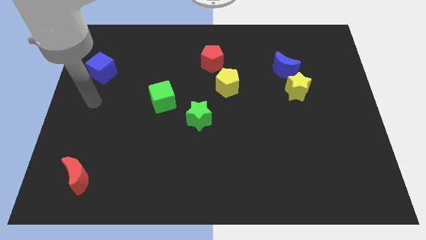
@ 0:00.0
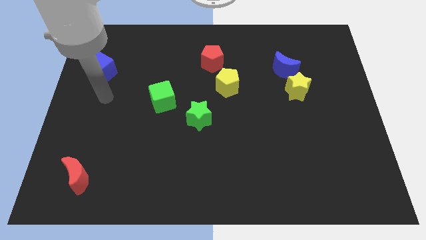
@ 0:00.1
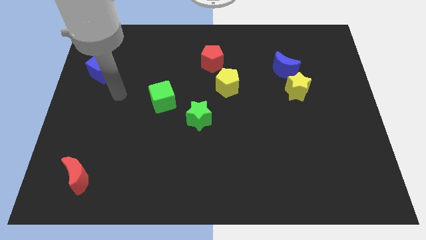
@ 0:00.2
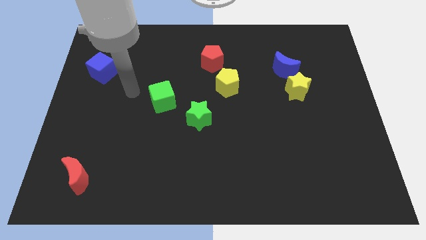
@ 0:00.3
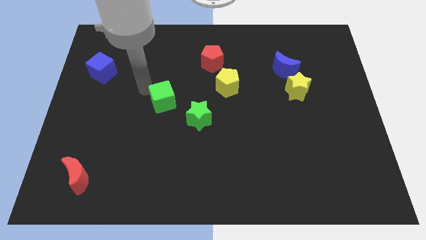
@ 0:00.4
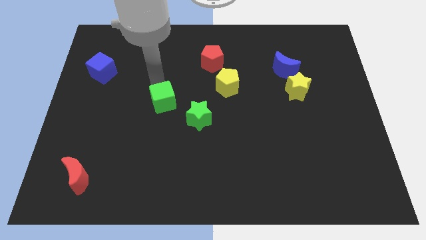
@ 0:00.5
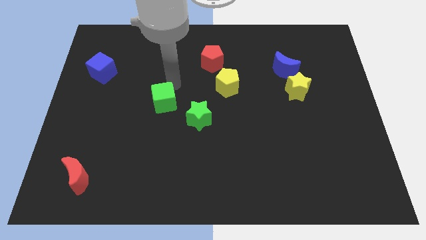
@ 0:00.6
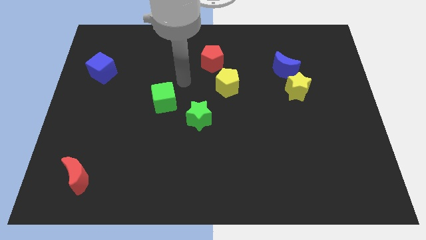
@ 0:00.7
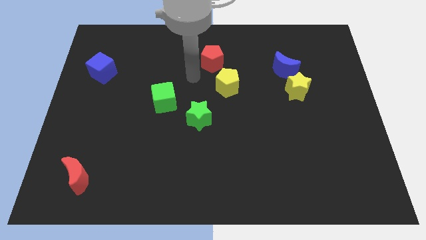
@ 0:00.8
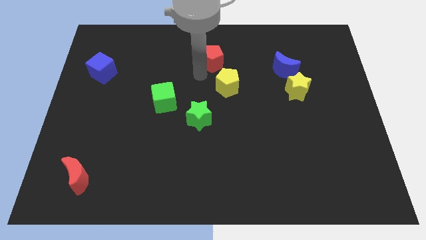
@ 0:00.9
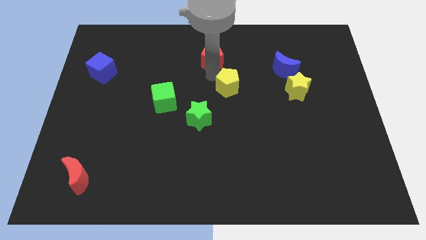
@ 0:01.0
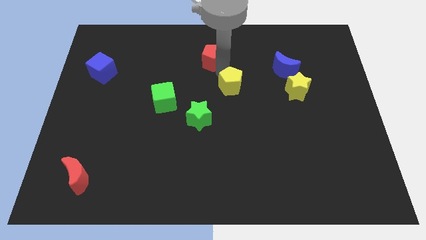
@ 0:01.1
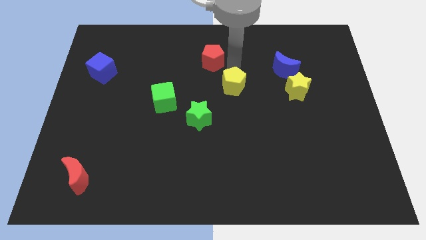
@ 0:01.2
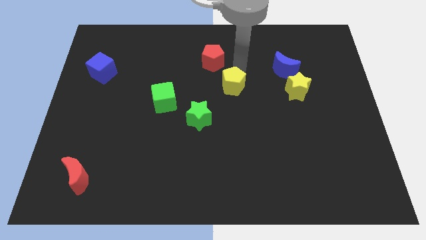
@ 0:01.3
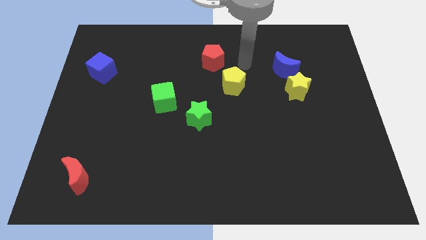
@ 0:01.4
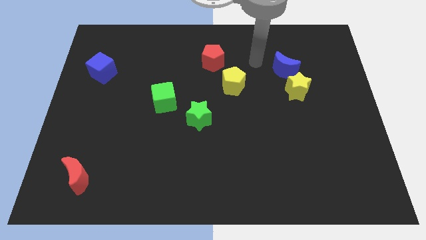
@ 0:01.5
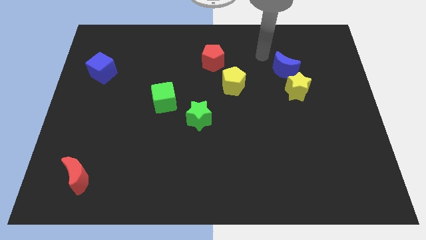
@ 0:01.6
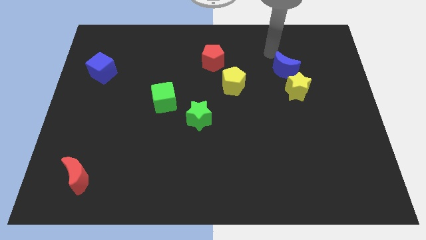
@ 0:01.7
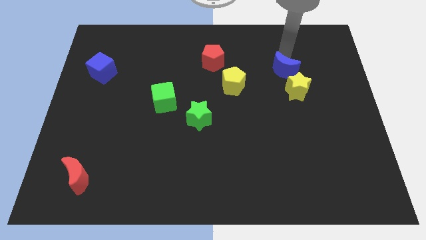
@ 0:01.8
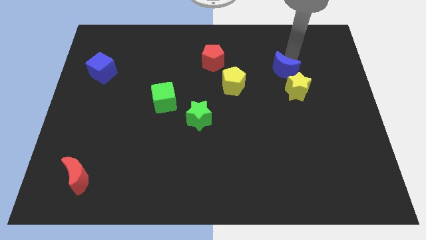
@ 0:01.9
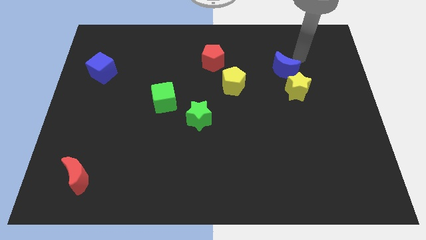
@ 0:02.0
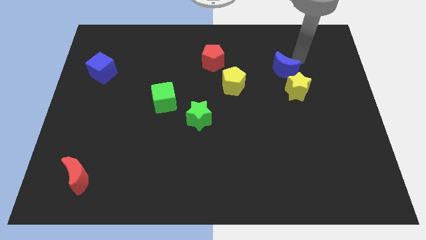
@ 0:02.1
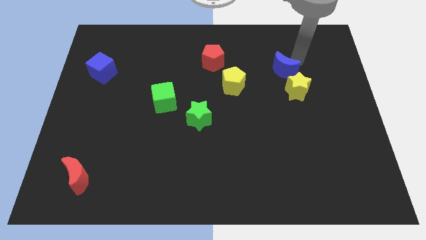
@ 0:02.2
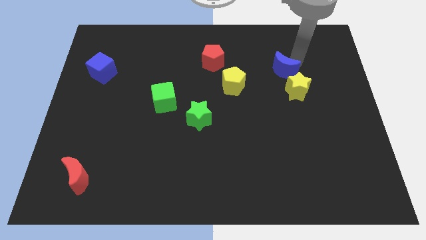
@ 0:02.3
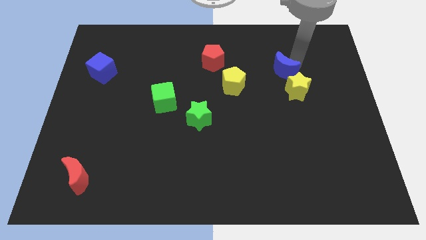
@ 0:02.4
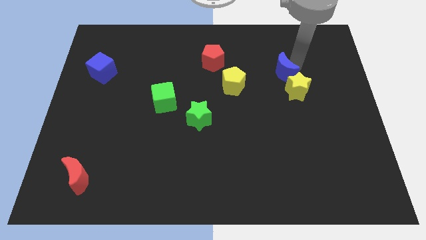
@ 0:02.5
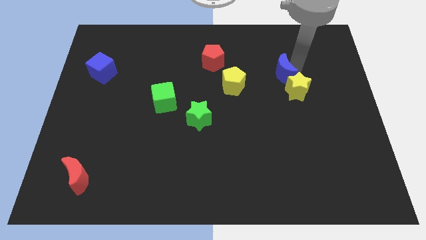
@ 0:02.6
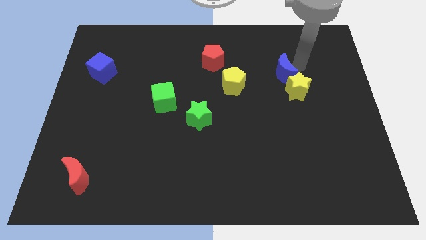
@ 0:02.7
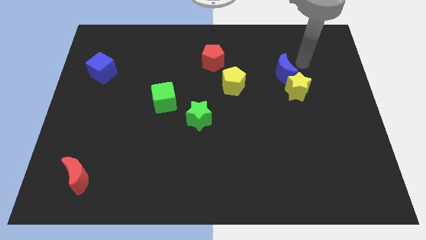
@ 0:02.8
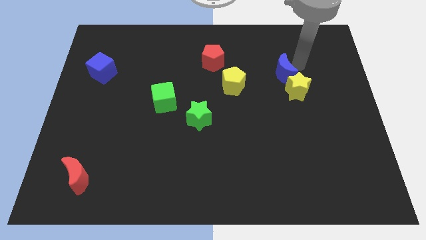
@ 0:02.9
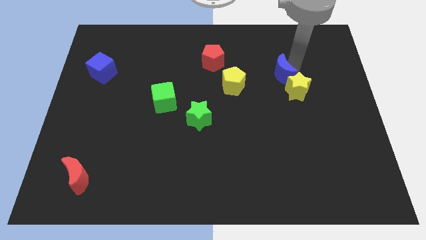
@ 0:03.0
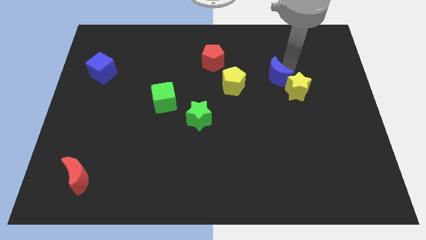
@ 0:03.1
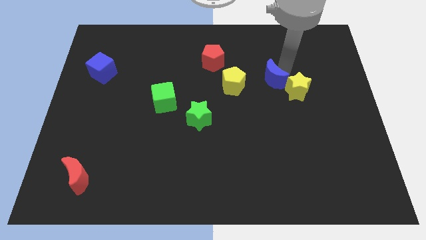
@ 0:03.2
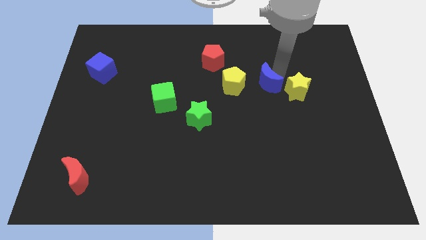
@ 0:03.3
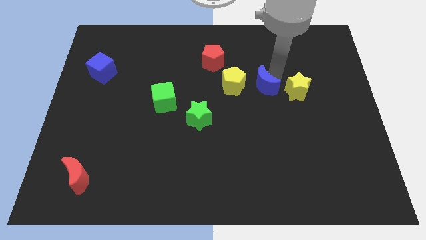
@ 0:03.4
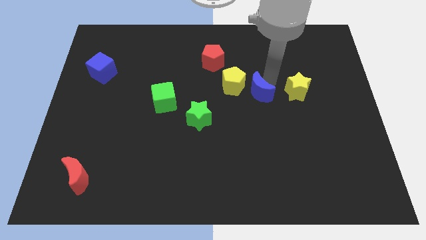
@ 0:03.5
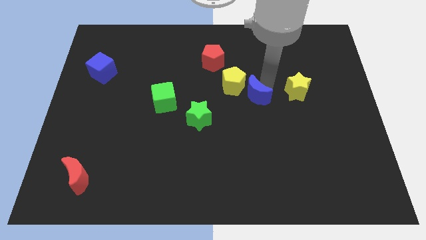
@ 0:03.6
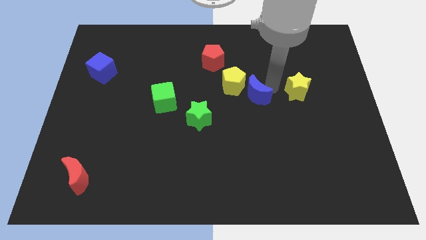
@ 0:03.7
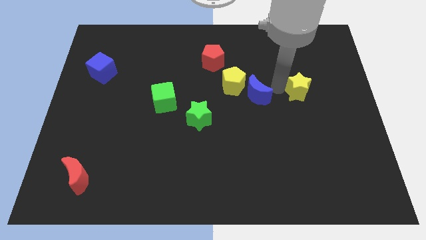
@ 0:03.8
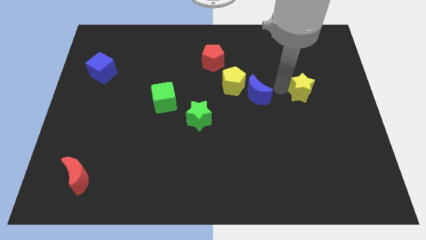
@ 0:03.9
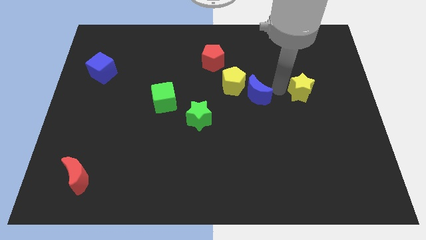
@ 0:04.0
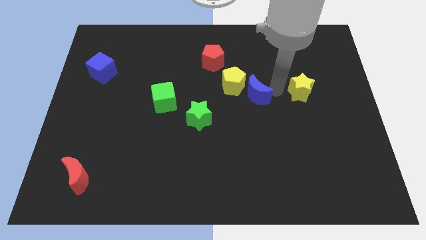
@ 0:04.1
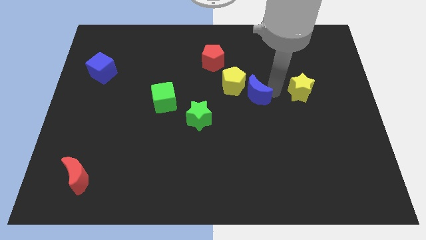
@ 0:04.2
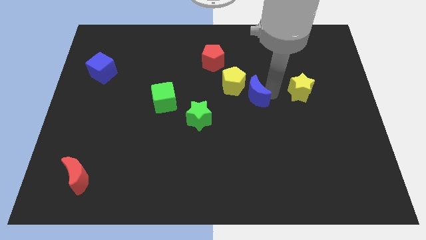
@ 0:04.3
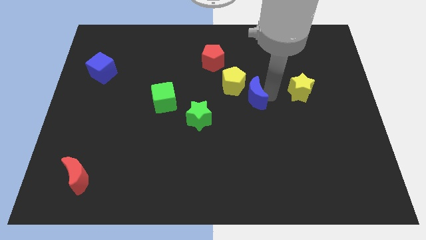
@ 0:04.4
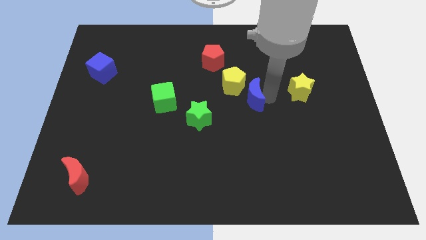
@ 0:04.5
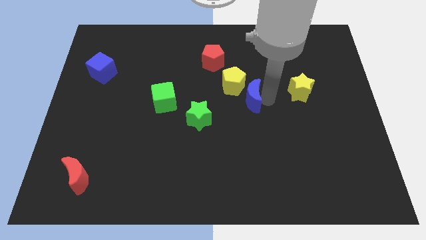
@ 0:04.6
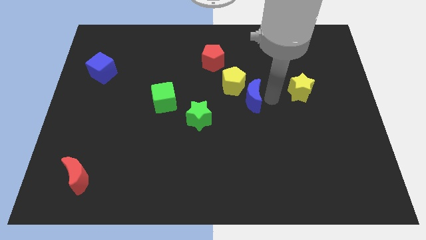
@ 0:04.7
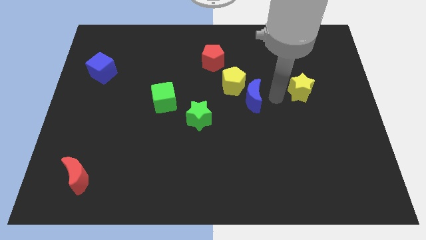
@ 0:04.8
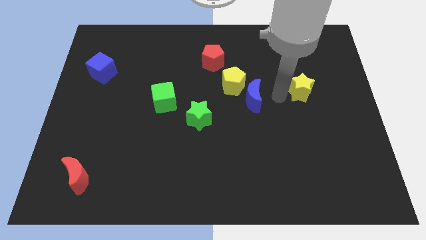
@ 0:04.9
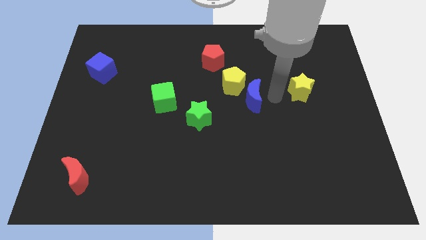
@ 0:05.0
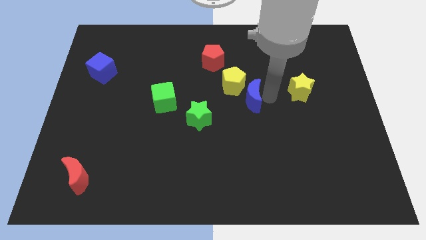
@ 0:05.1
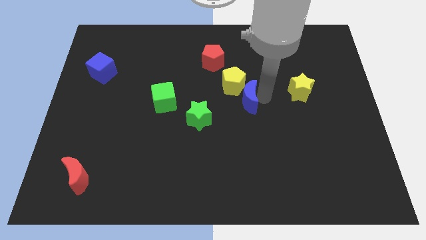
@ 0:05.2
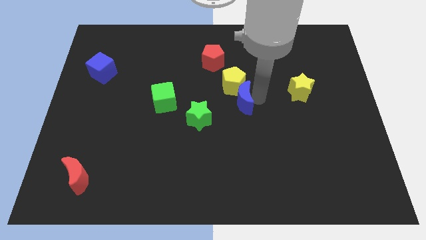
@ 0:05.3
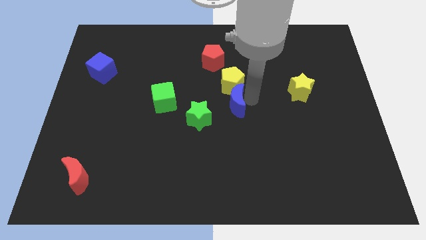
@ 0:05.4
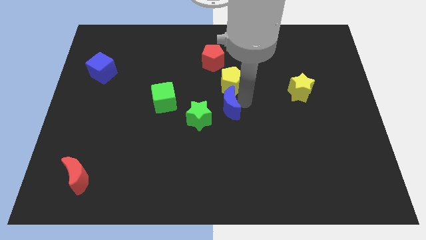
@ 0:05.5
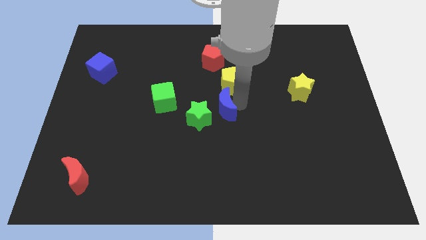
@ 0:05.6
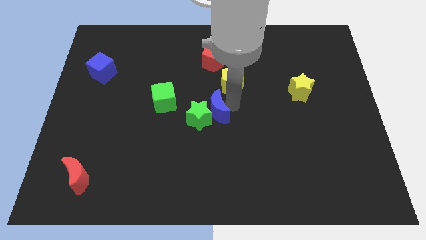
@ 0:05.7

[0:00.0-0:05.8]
put the blue moon towards the green star

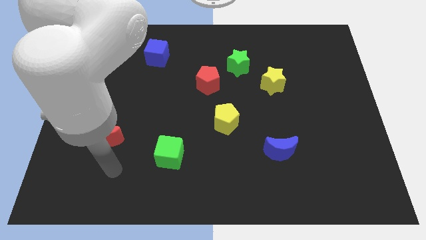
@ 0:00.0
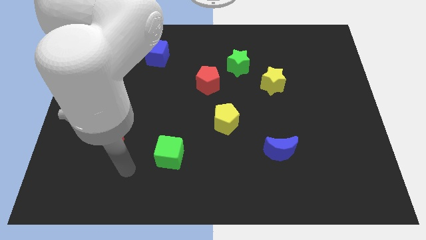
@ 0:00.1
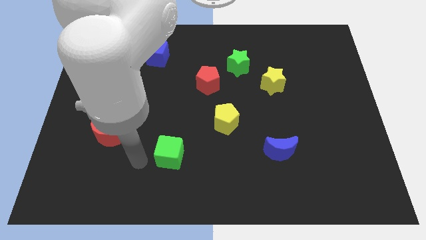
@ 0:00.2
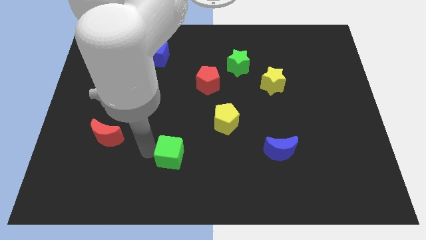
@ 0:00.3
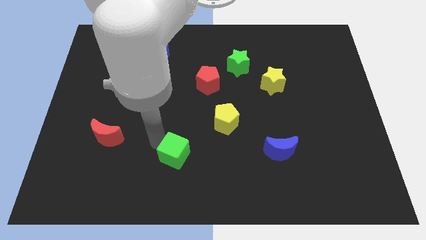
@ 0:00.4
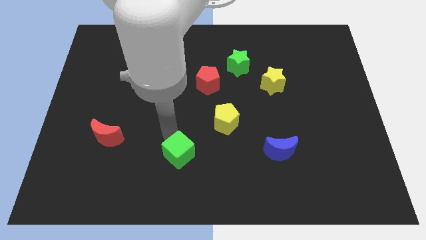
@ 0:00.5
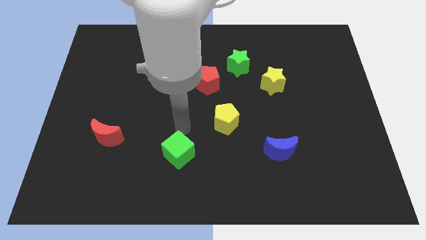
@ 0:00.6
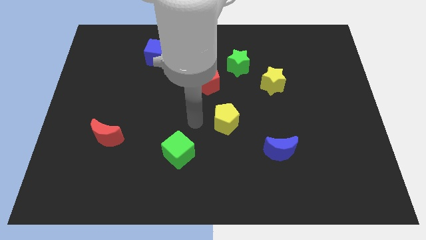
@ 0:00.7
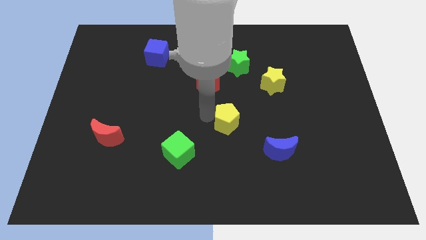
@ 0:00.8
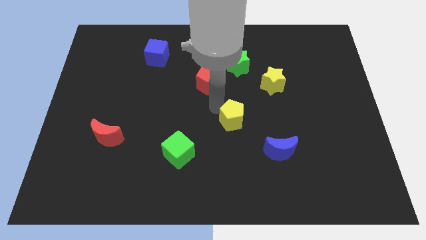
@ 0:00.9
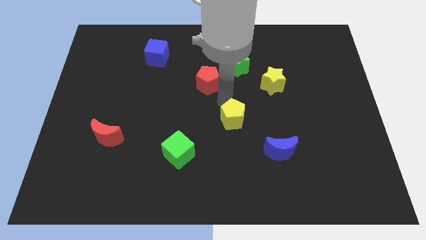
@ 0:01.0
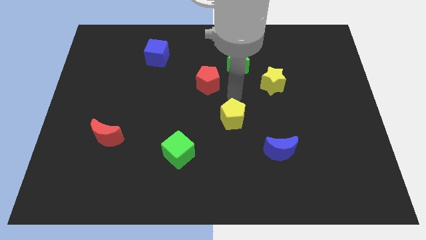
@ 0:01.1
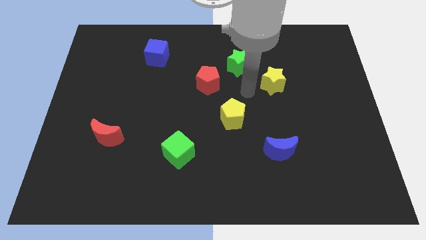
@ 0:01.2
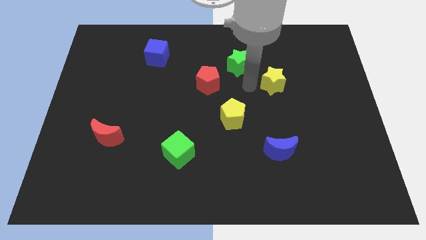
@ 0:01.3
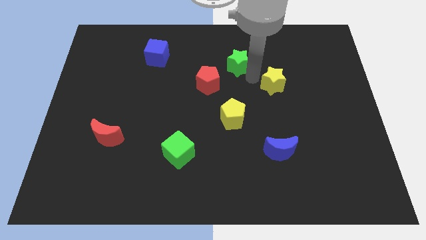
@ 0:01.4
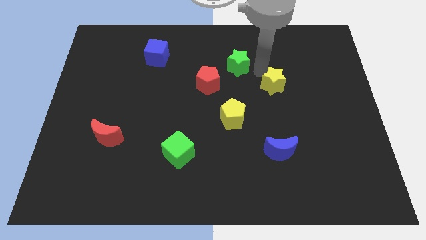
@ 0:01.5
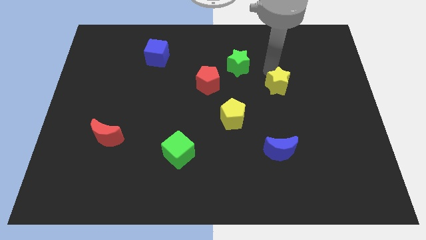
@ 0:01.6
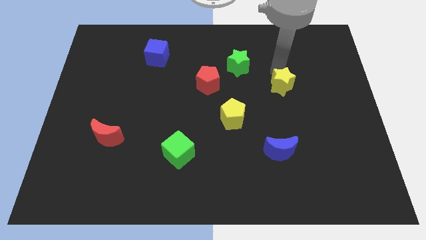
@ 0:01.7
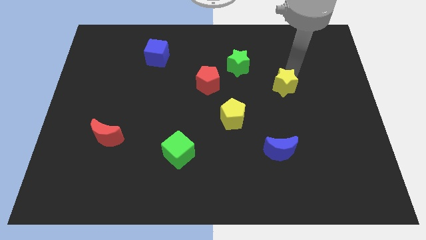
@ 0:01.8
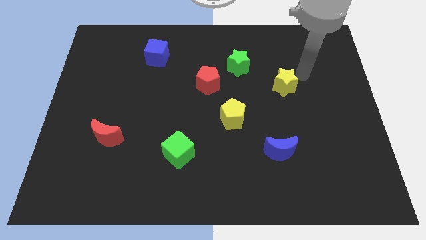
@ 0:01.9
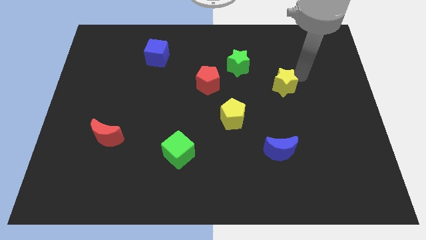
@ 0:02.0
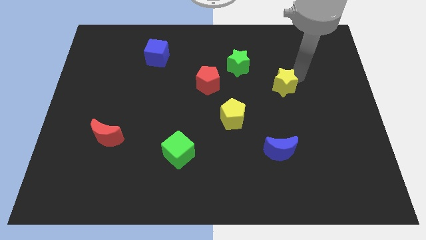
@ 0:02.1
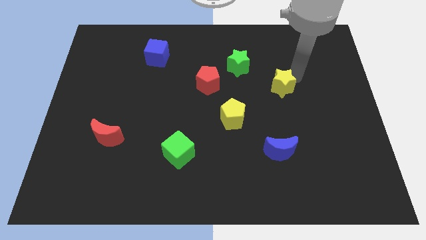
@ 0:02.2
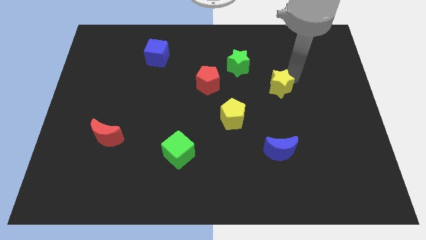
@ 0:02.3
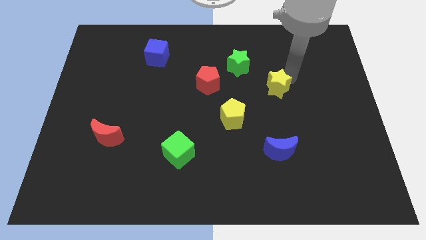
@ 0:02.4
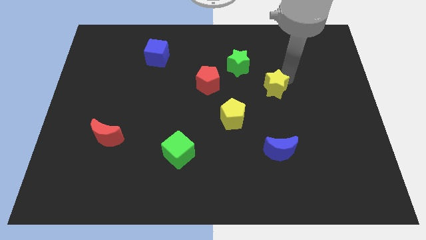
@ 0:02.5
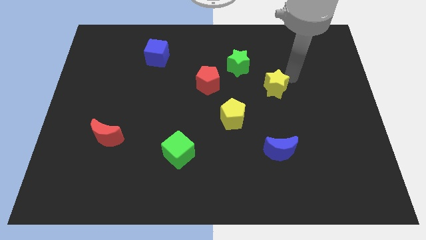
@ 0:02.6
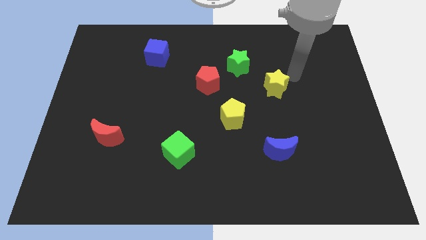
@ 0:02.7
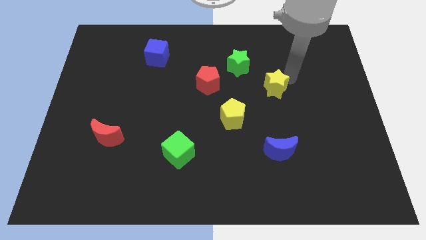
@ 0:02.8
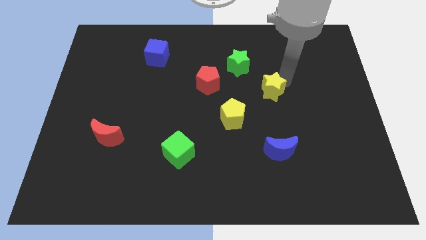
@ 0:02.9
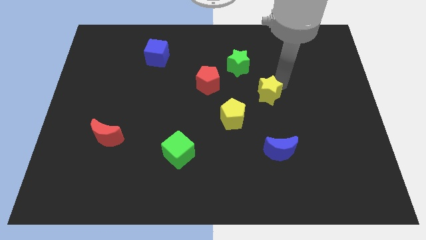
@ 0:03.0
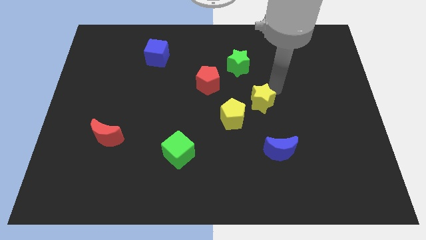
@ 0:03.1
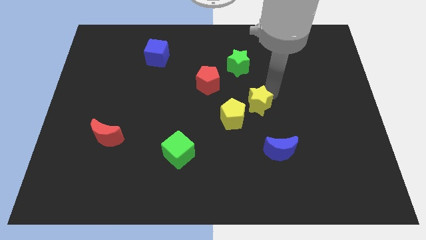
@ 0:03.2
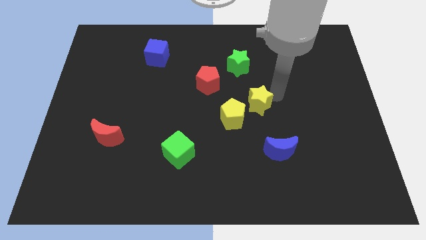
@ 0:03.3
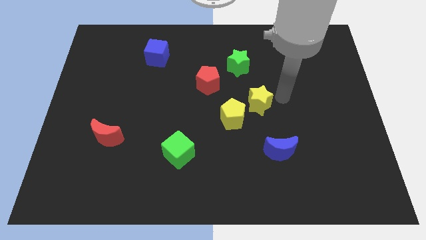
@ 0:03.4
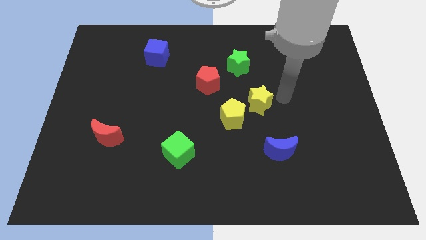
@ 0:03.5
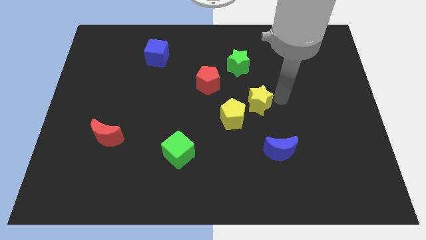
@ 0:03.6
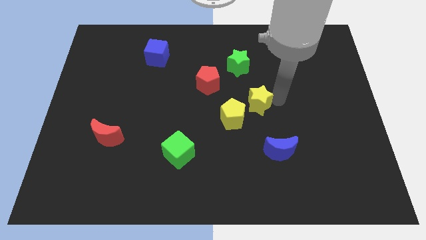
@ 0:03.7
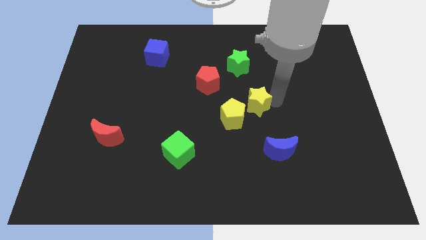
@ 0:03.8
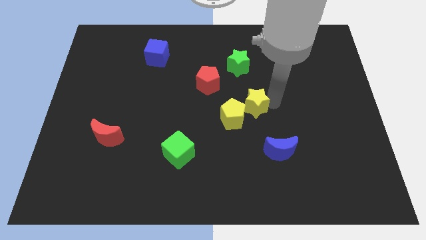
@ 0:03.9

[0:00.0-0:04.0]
put the yellow star next to the yellow pentagon
